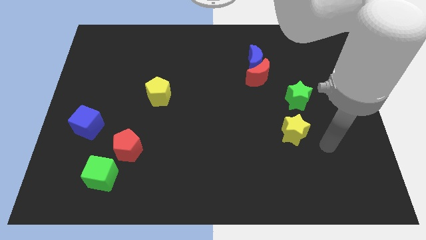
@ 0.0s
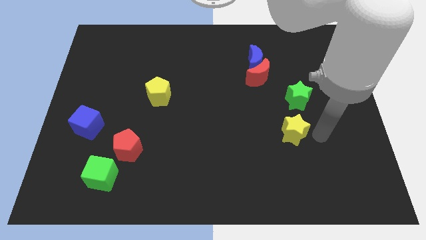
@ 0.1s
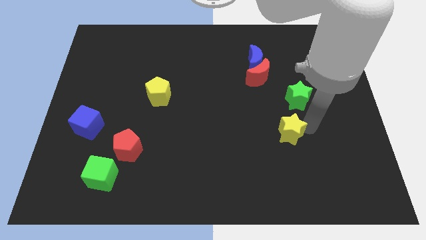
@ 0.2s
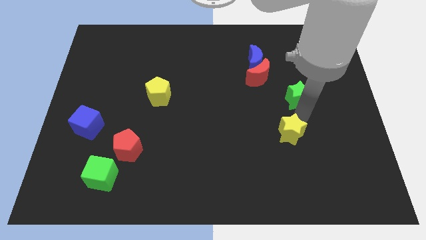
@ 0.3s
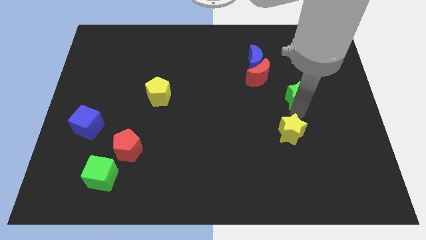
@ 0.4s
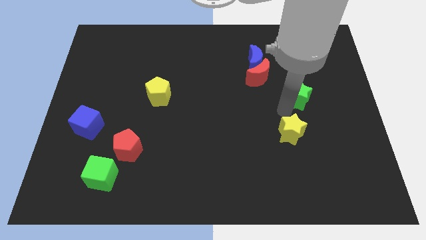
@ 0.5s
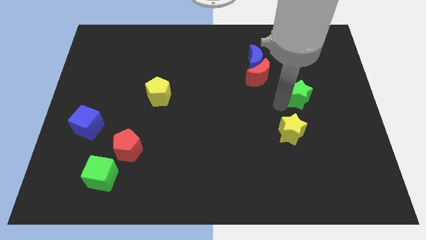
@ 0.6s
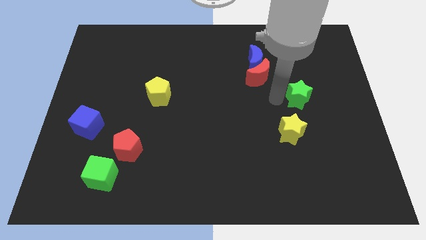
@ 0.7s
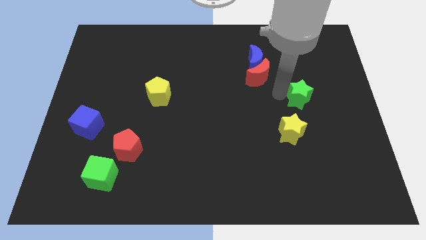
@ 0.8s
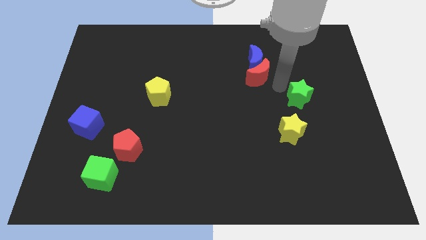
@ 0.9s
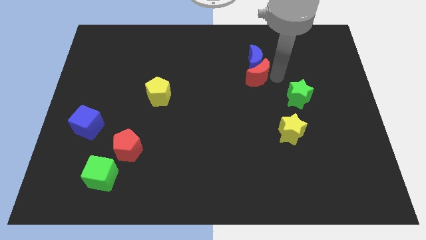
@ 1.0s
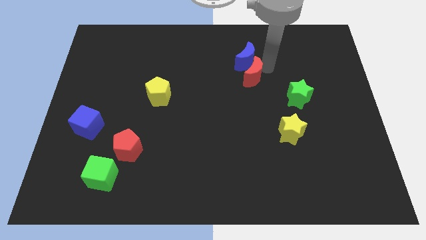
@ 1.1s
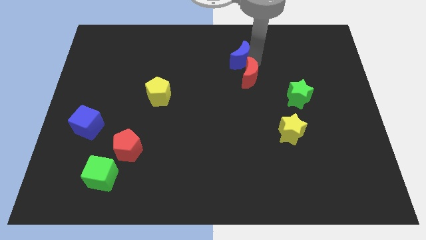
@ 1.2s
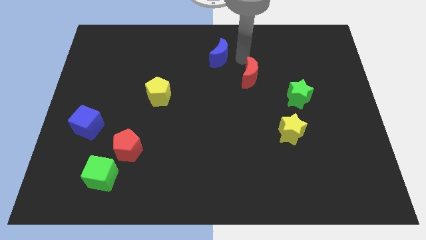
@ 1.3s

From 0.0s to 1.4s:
move the red moon away from the blue moon

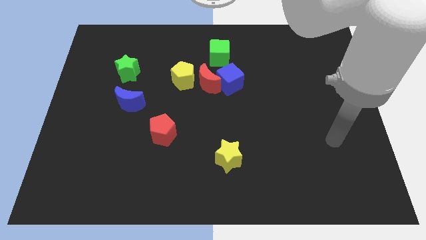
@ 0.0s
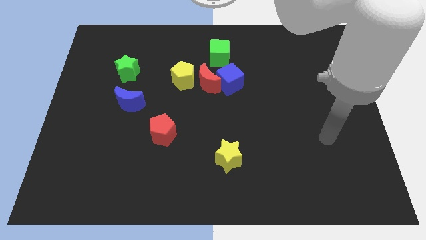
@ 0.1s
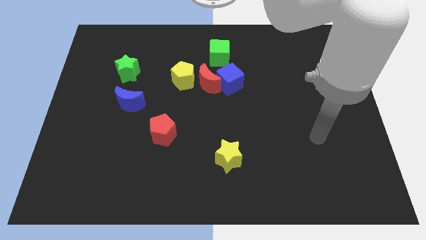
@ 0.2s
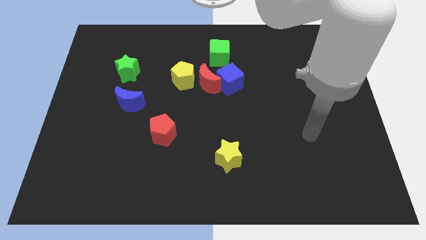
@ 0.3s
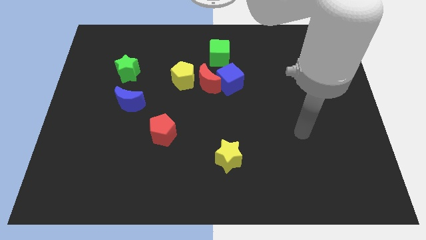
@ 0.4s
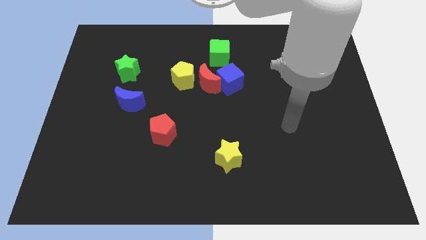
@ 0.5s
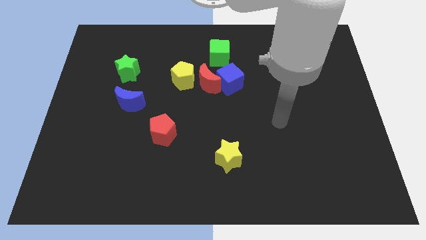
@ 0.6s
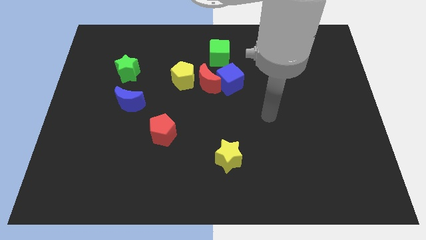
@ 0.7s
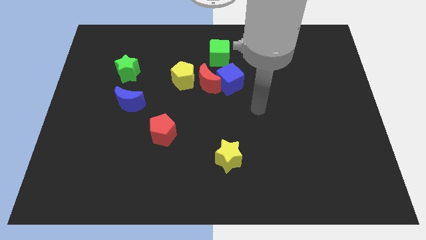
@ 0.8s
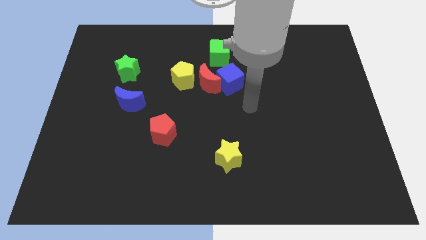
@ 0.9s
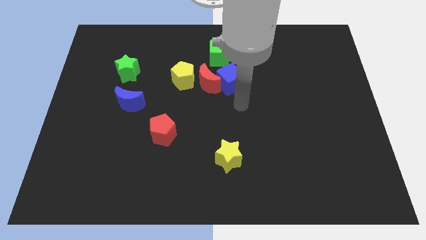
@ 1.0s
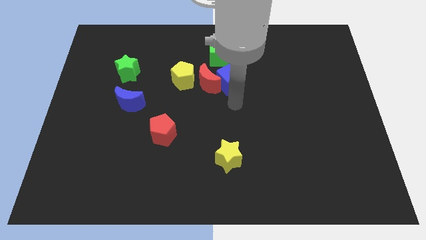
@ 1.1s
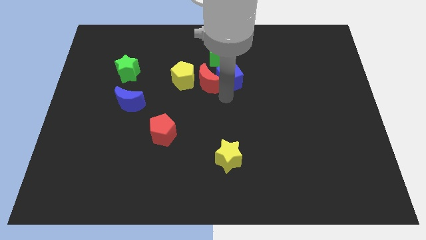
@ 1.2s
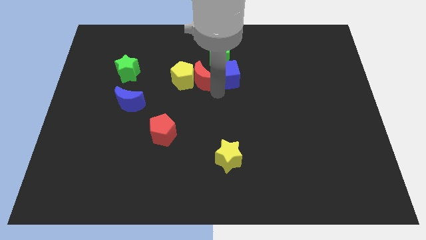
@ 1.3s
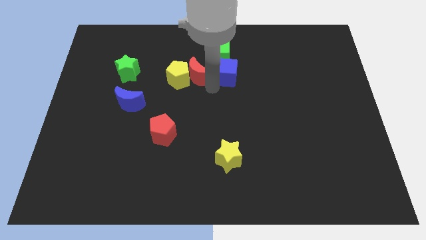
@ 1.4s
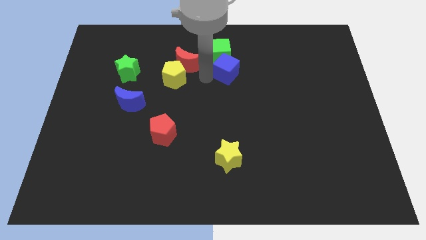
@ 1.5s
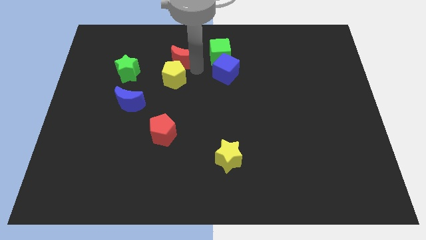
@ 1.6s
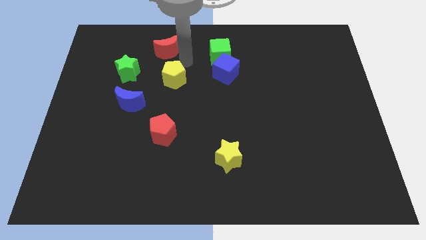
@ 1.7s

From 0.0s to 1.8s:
pull the yellow pentagon apart from the red moon

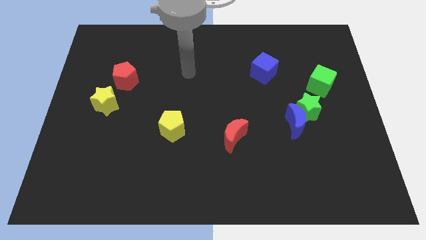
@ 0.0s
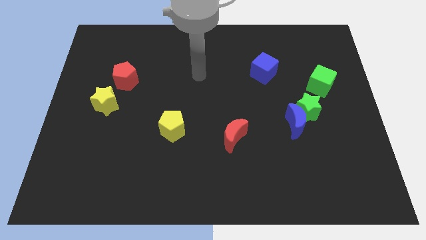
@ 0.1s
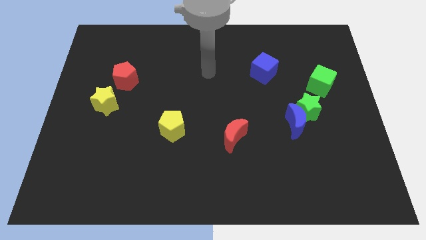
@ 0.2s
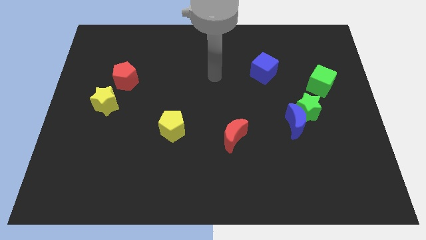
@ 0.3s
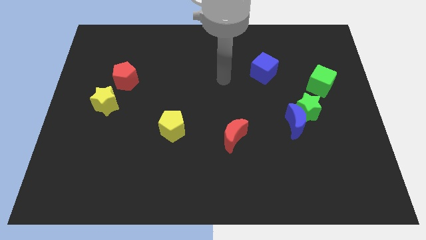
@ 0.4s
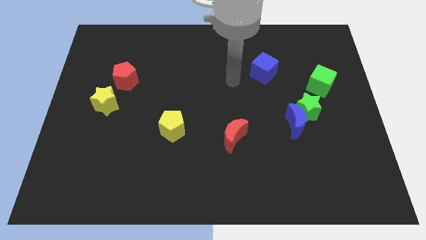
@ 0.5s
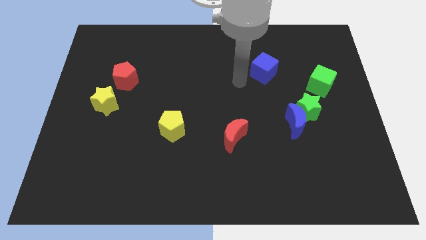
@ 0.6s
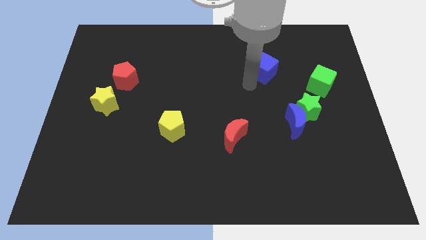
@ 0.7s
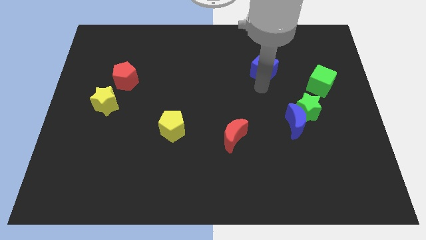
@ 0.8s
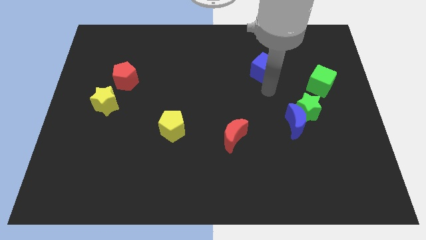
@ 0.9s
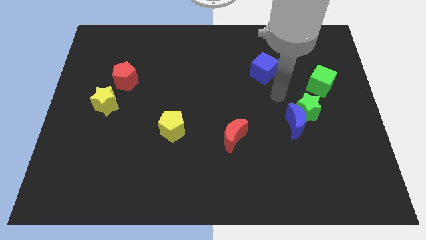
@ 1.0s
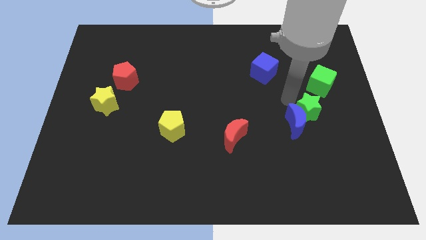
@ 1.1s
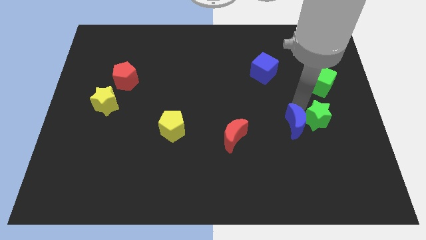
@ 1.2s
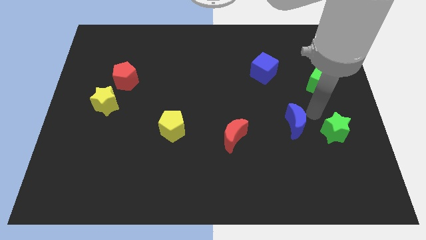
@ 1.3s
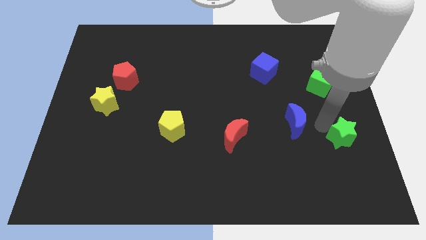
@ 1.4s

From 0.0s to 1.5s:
pull the blue moon apart from the green star

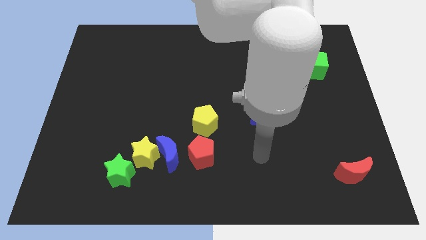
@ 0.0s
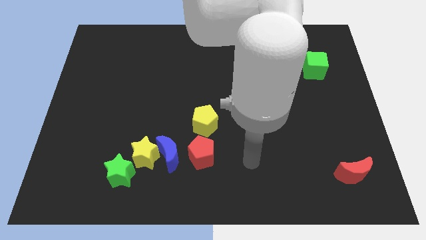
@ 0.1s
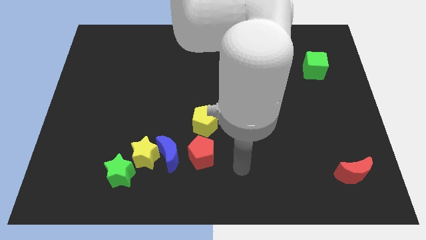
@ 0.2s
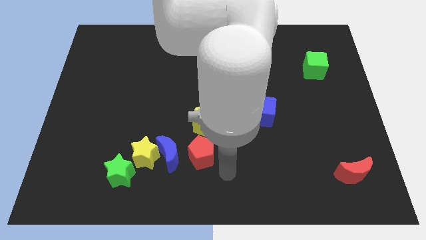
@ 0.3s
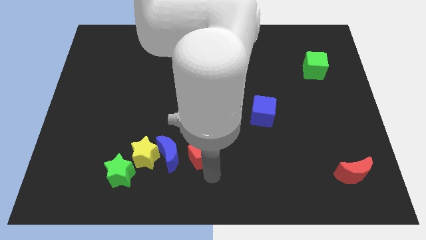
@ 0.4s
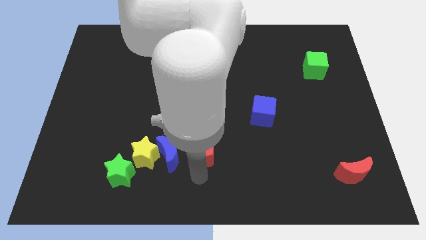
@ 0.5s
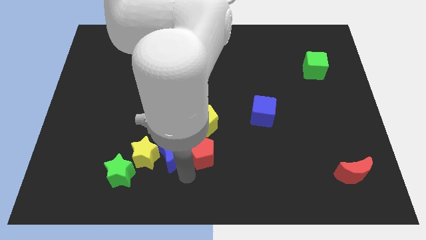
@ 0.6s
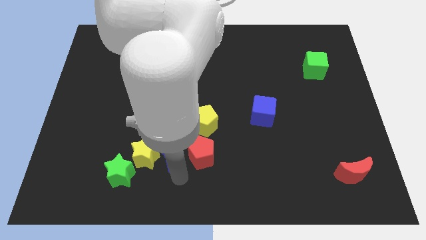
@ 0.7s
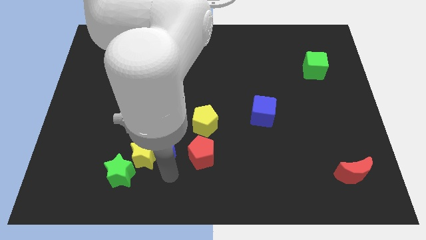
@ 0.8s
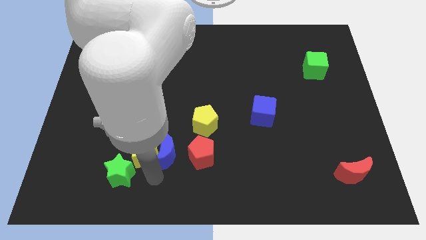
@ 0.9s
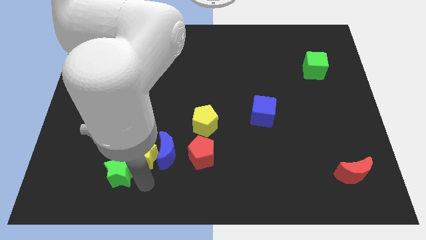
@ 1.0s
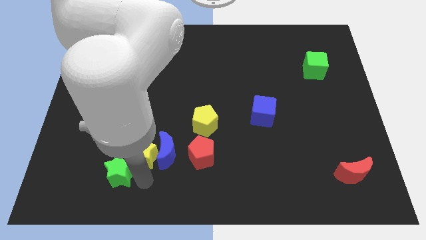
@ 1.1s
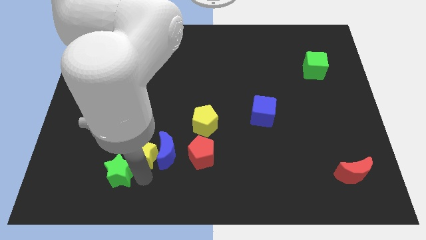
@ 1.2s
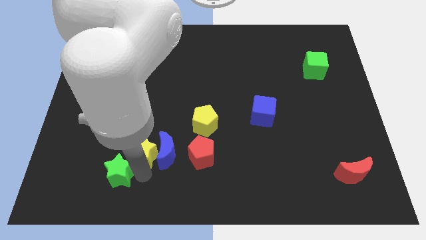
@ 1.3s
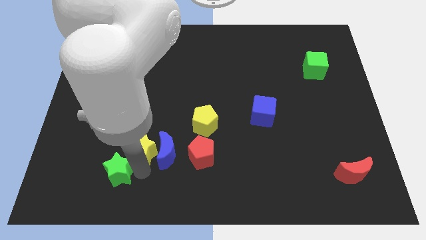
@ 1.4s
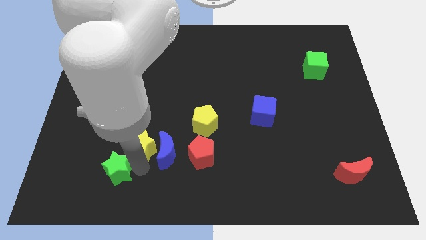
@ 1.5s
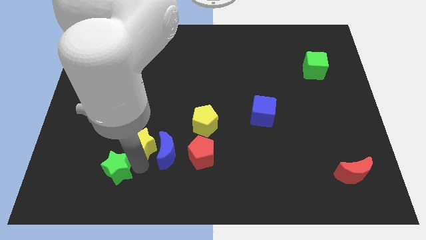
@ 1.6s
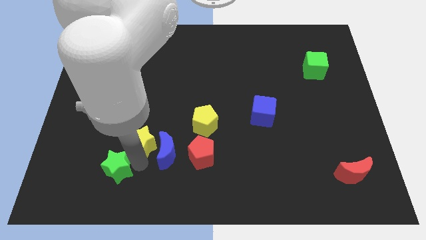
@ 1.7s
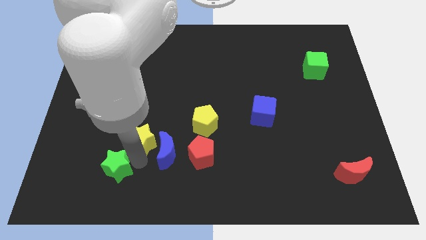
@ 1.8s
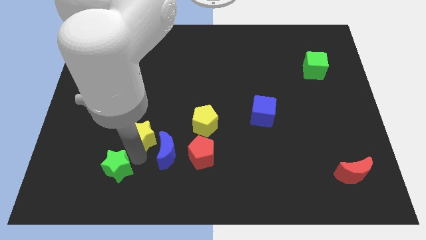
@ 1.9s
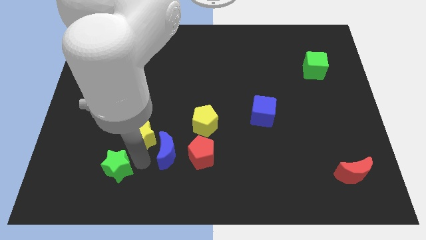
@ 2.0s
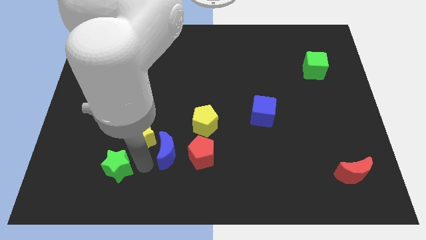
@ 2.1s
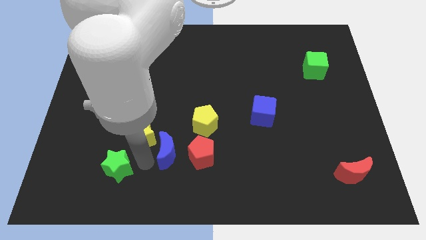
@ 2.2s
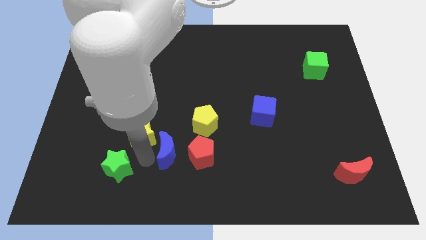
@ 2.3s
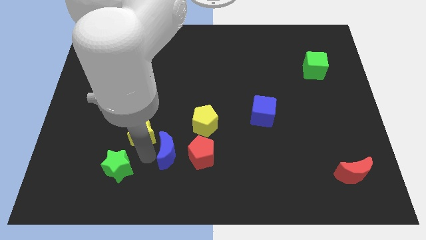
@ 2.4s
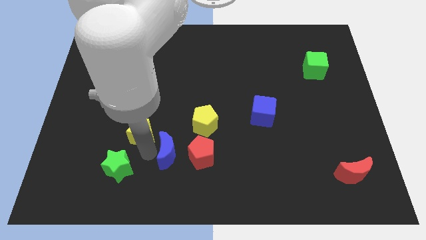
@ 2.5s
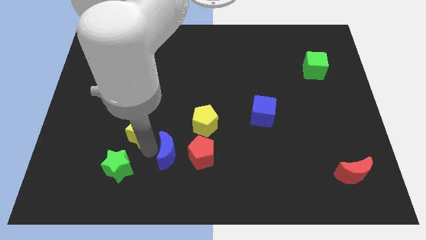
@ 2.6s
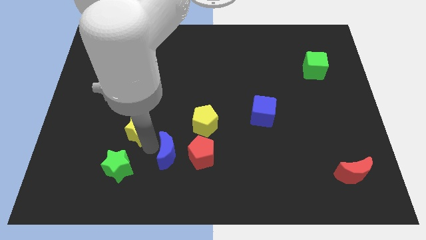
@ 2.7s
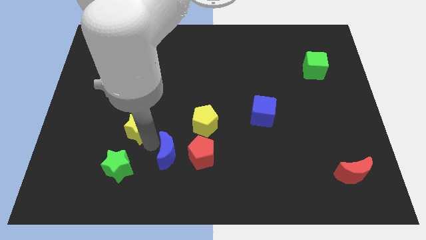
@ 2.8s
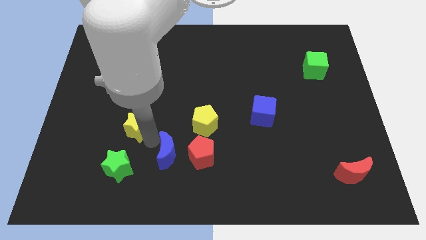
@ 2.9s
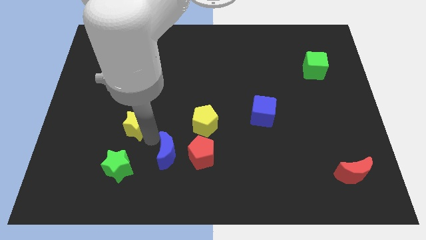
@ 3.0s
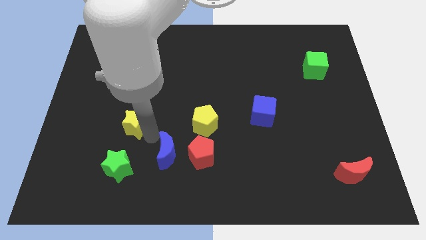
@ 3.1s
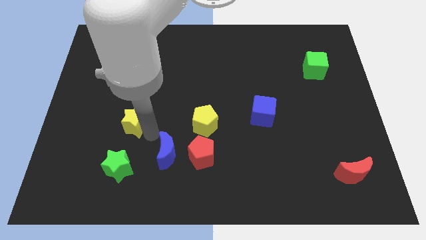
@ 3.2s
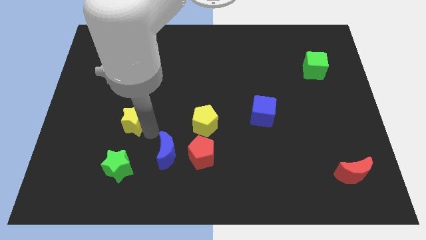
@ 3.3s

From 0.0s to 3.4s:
pull the yellow star apart from the blue moon and green star

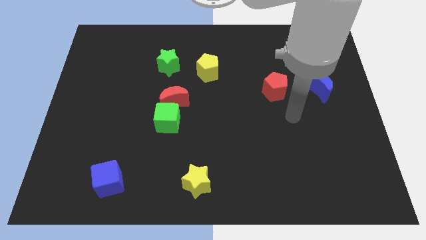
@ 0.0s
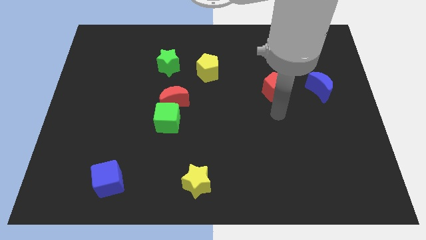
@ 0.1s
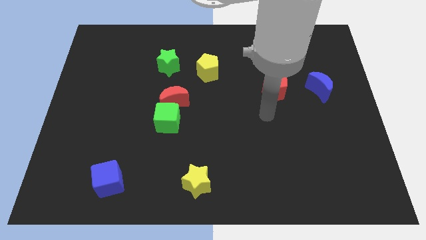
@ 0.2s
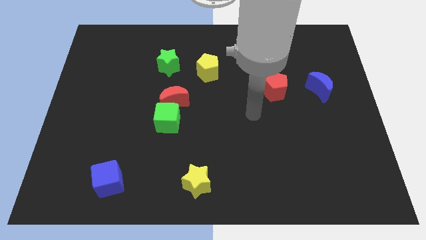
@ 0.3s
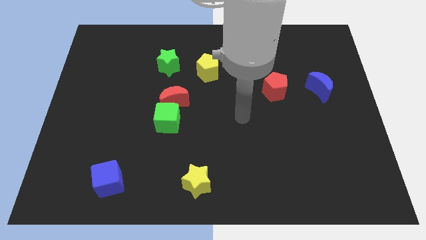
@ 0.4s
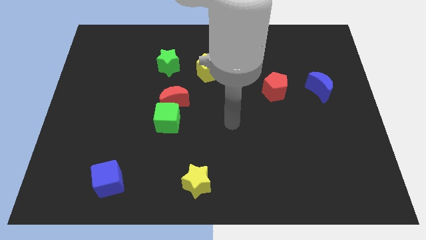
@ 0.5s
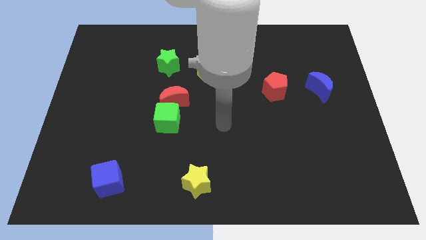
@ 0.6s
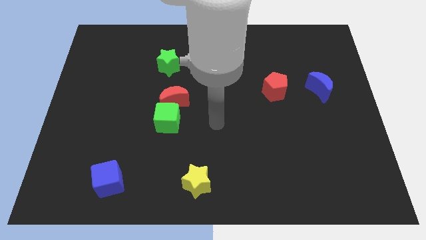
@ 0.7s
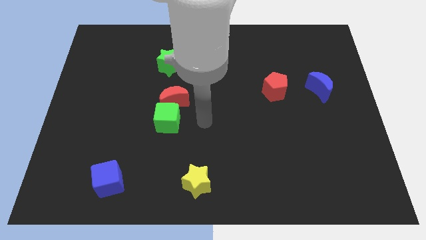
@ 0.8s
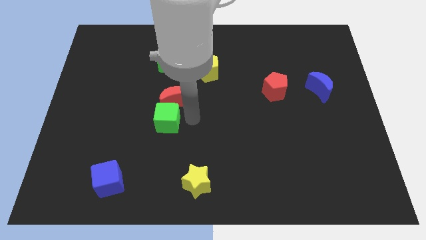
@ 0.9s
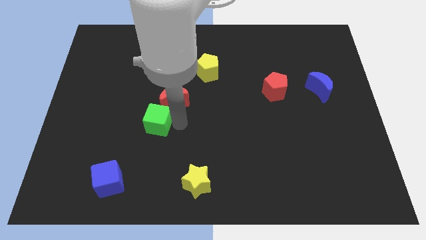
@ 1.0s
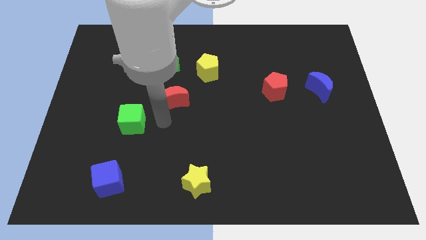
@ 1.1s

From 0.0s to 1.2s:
move the red moon away from the green cube

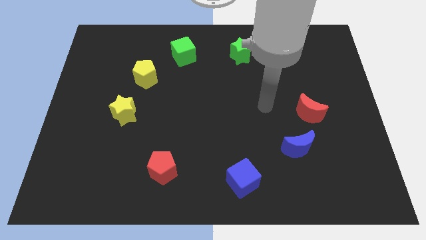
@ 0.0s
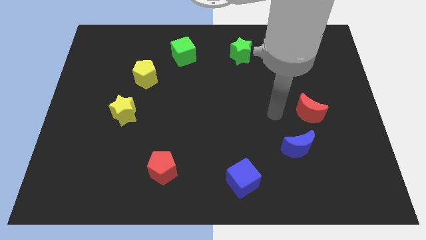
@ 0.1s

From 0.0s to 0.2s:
pull the red moon apart from the blue moon
